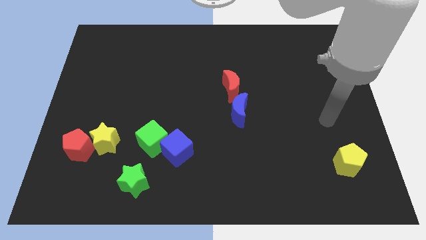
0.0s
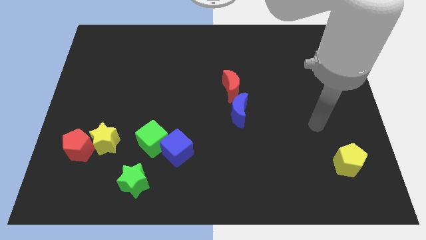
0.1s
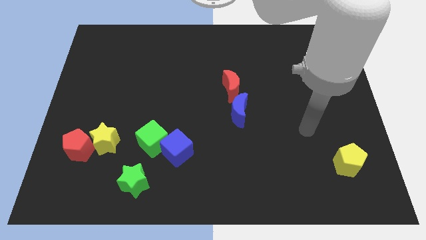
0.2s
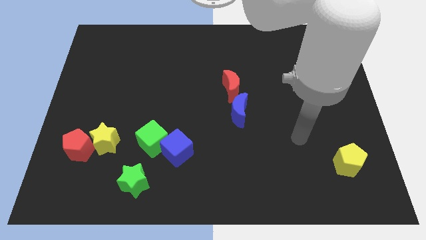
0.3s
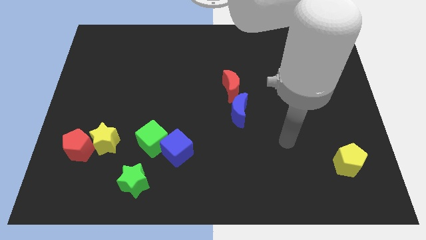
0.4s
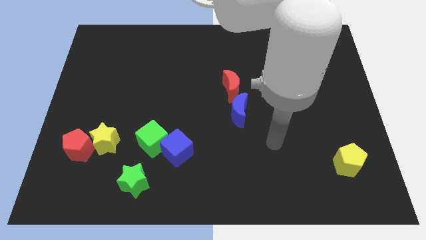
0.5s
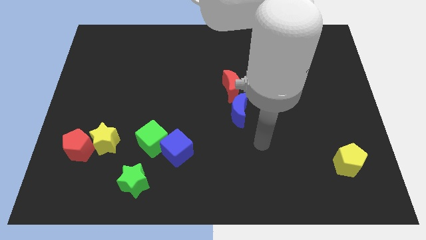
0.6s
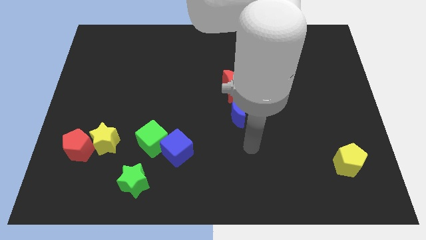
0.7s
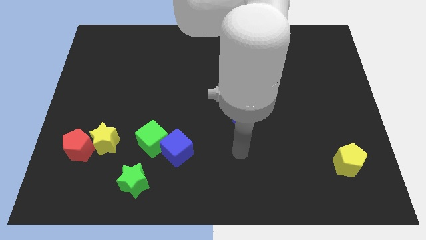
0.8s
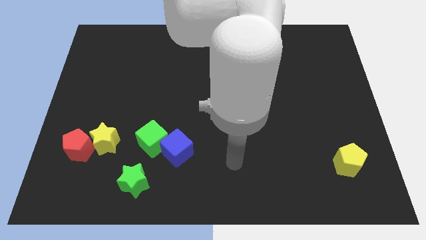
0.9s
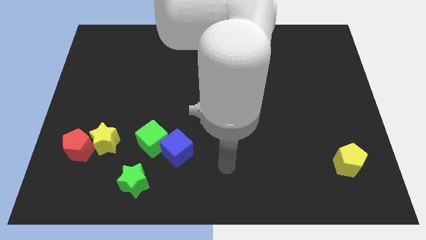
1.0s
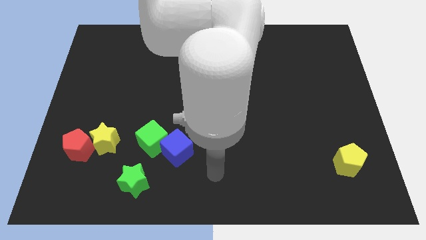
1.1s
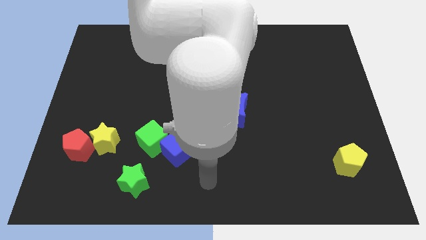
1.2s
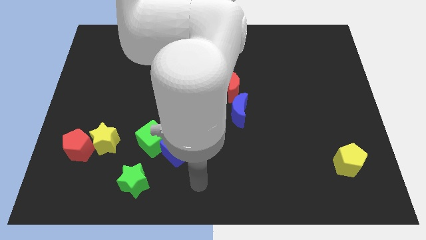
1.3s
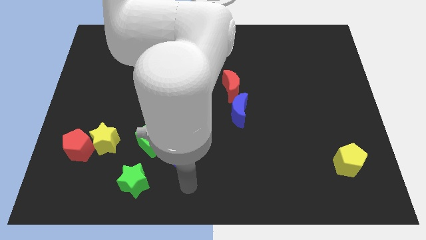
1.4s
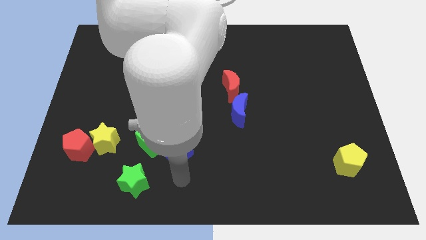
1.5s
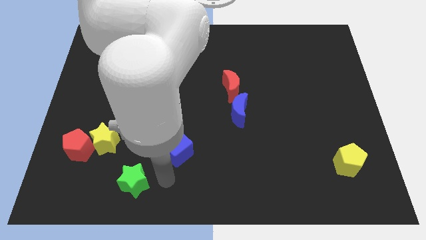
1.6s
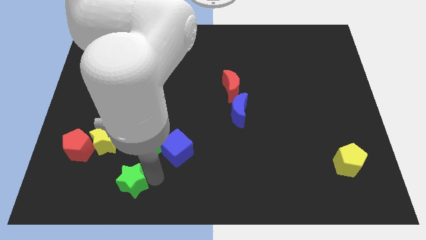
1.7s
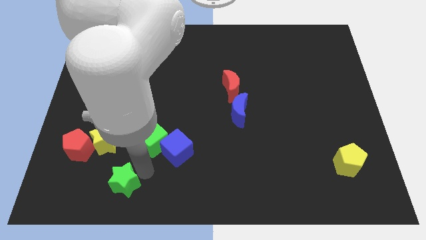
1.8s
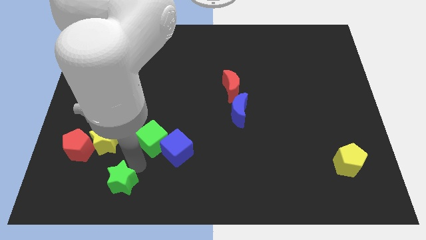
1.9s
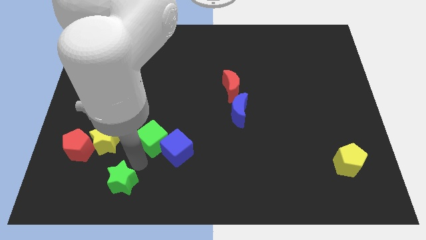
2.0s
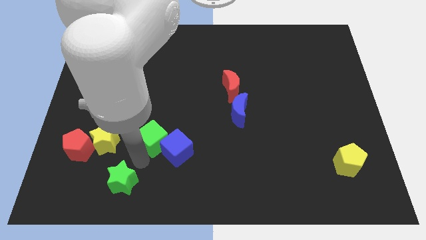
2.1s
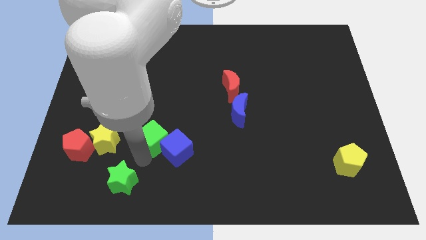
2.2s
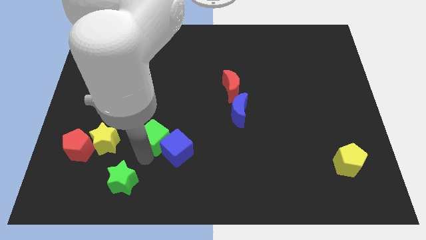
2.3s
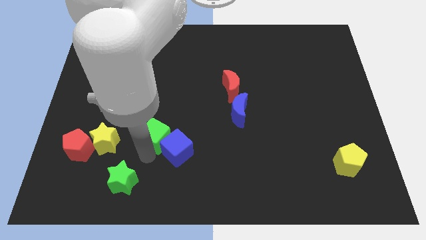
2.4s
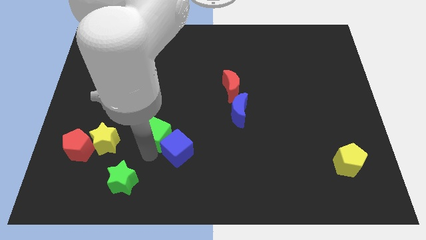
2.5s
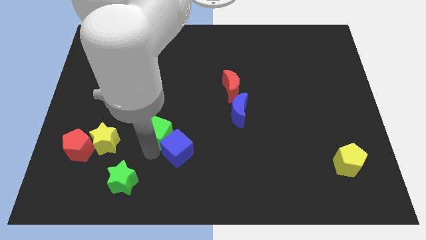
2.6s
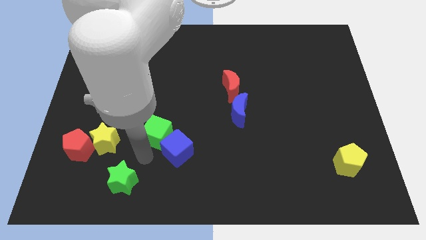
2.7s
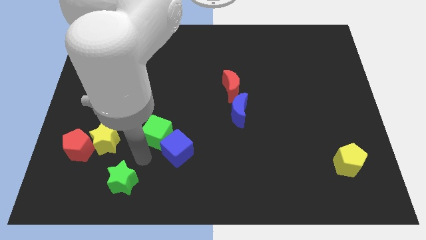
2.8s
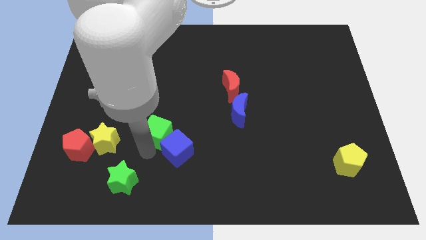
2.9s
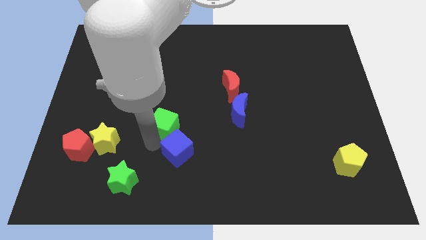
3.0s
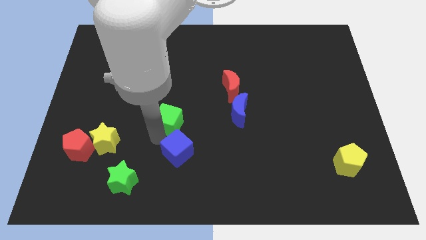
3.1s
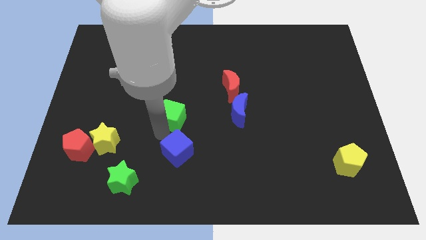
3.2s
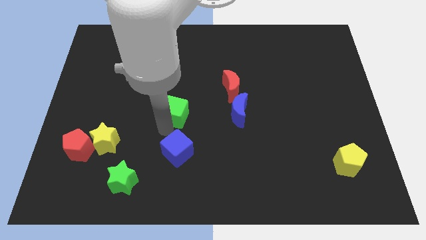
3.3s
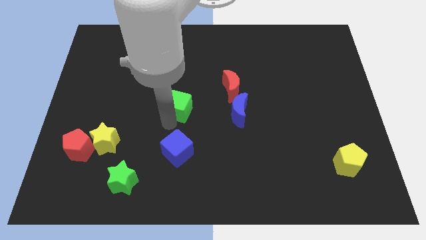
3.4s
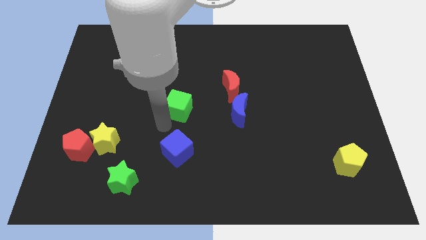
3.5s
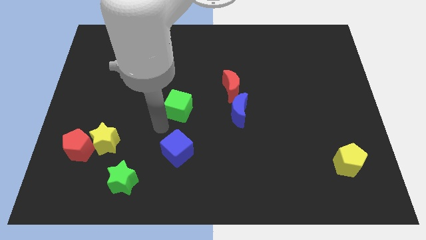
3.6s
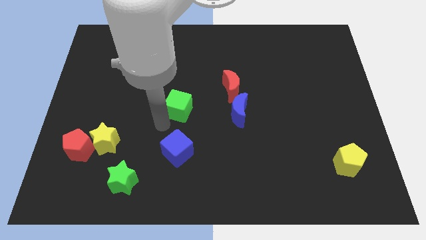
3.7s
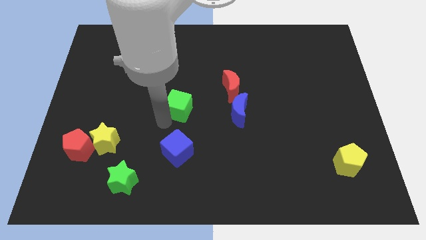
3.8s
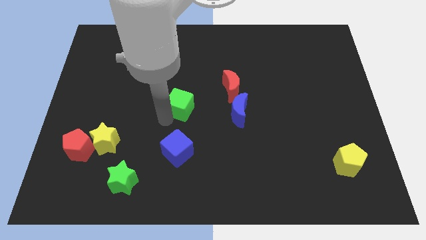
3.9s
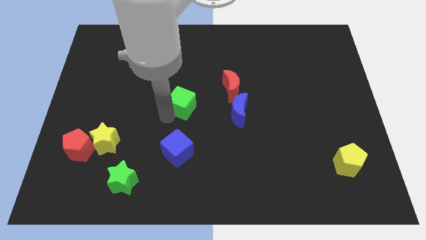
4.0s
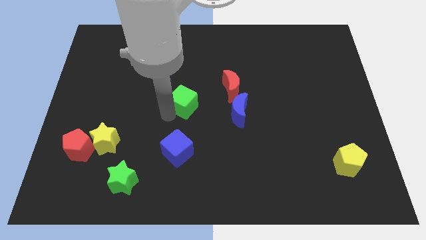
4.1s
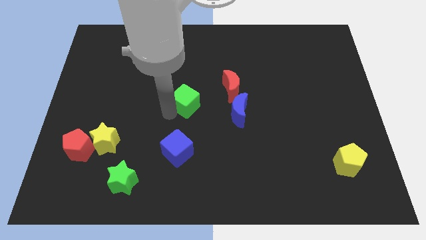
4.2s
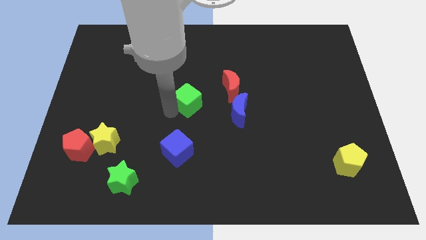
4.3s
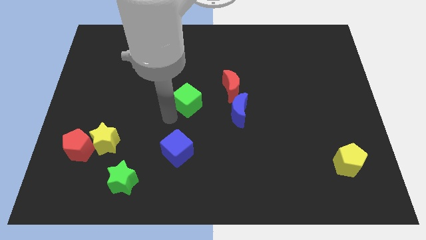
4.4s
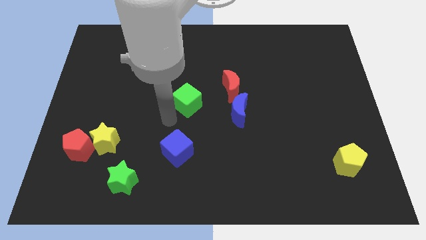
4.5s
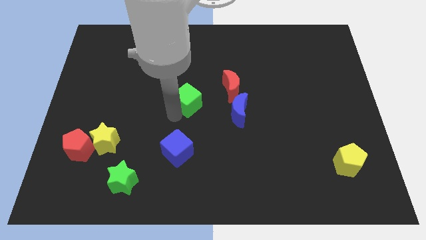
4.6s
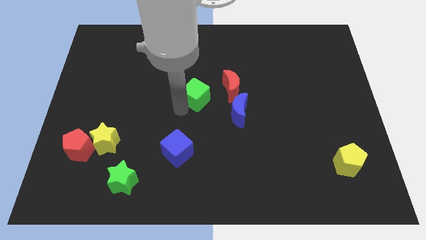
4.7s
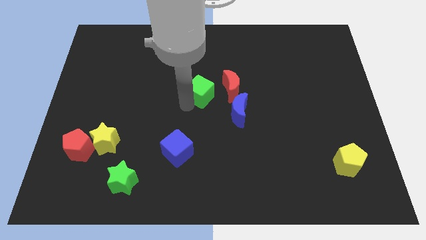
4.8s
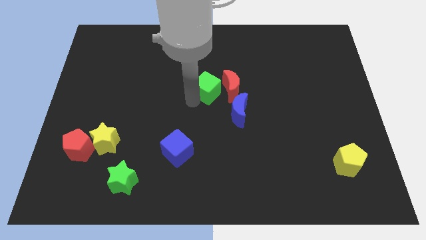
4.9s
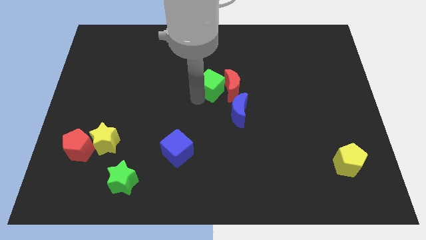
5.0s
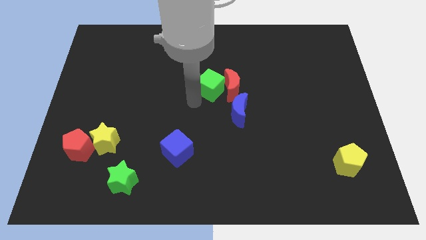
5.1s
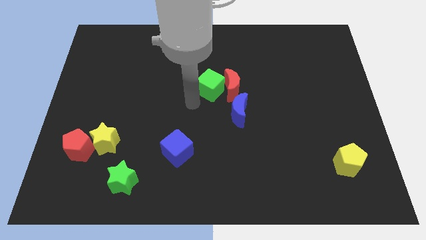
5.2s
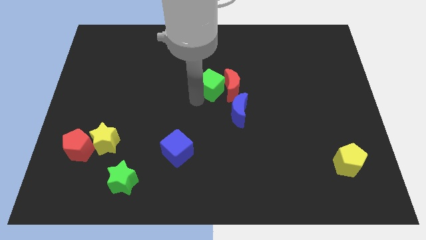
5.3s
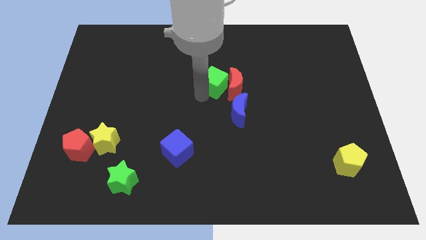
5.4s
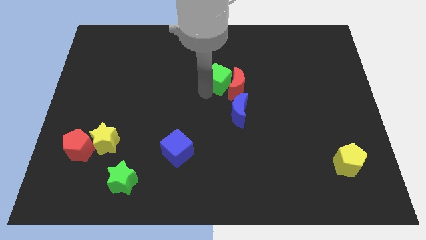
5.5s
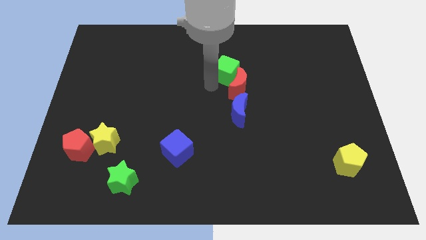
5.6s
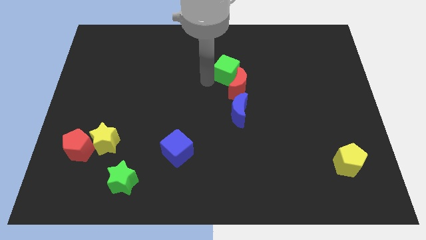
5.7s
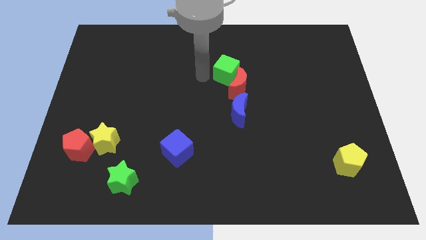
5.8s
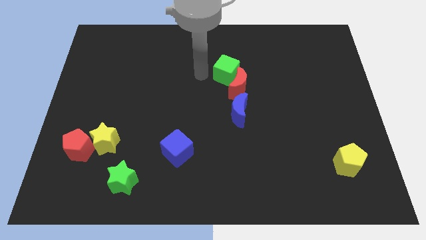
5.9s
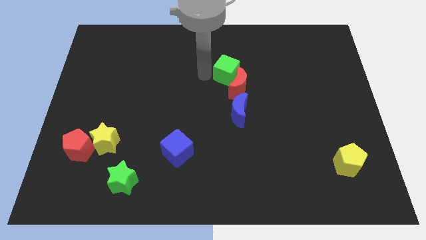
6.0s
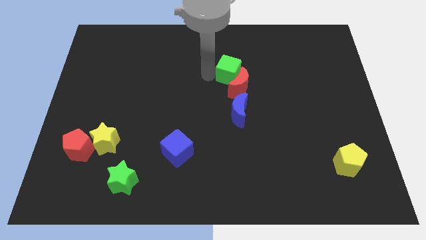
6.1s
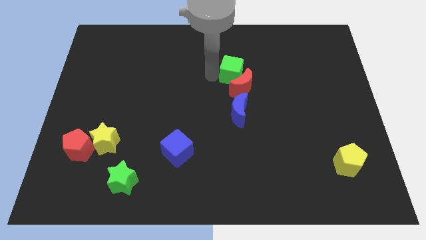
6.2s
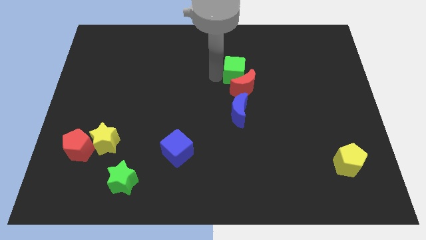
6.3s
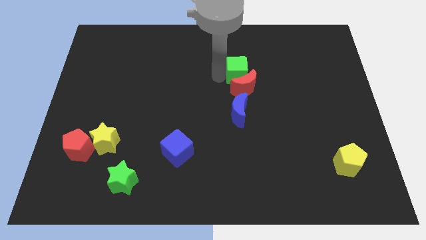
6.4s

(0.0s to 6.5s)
move the green cube to the top right of the red moon

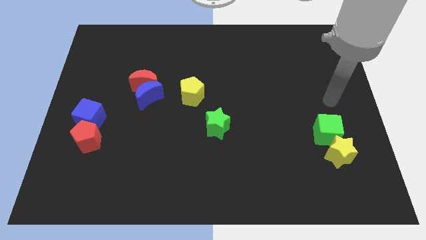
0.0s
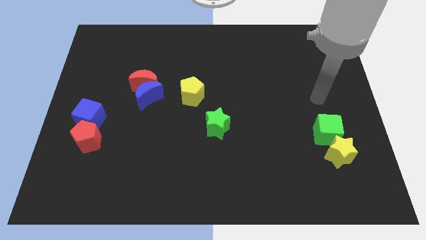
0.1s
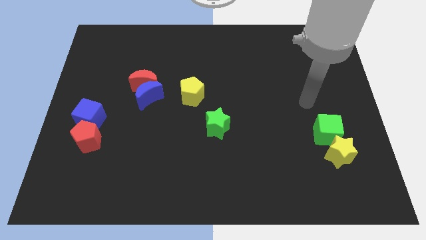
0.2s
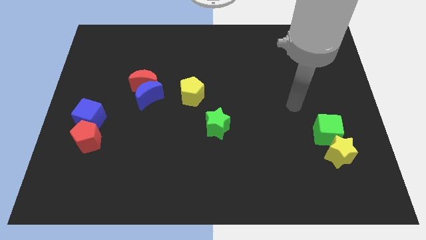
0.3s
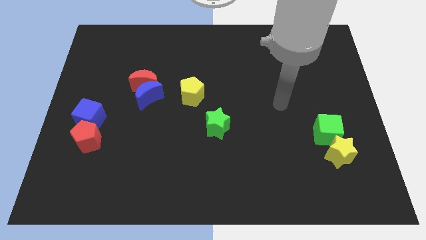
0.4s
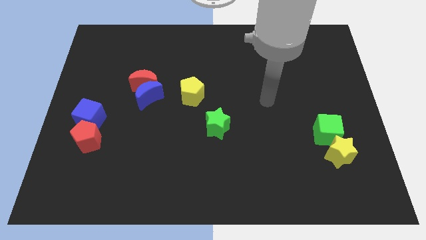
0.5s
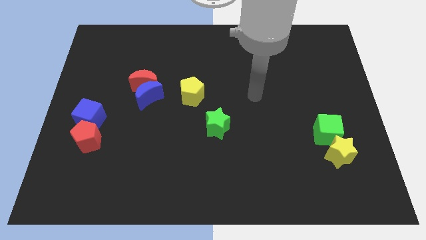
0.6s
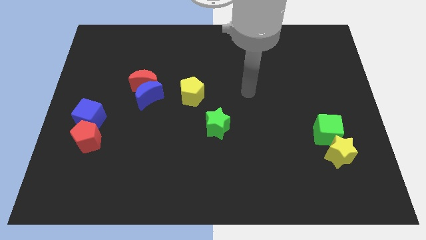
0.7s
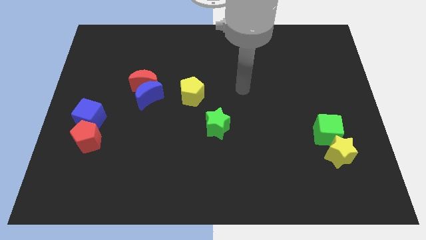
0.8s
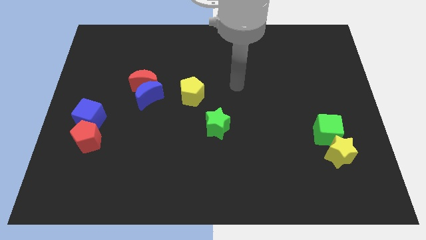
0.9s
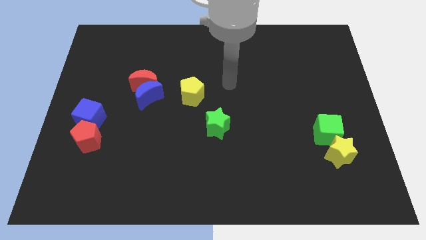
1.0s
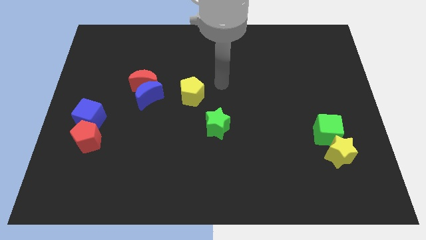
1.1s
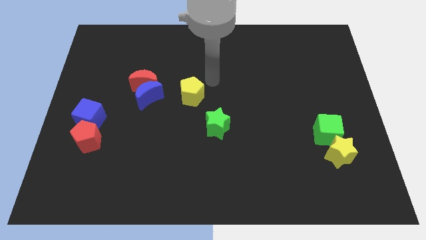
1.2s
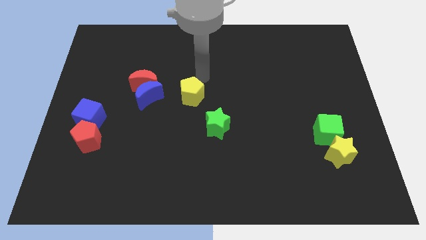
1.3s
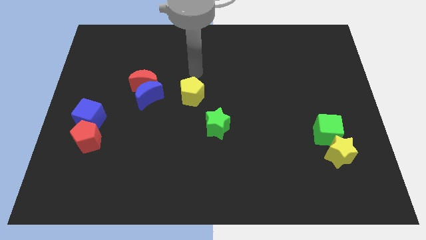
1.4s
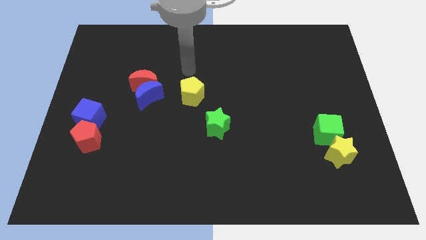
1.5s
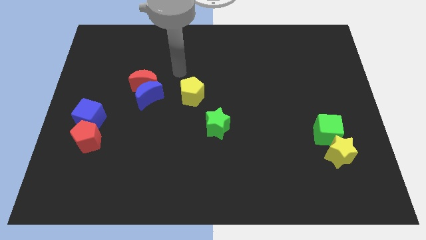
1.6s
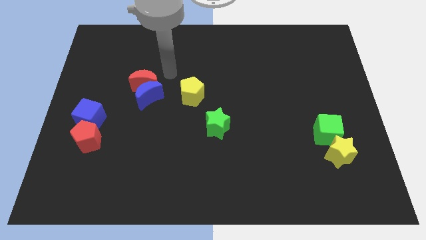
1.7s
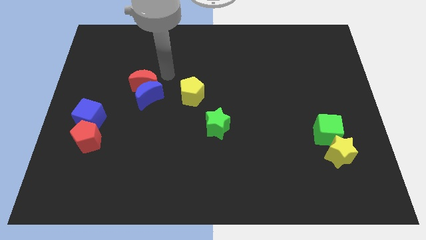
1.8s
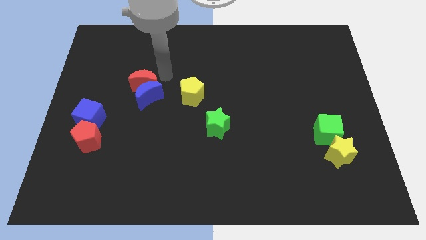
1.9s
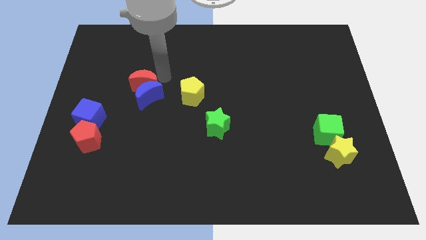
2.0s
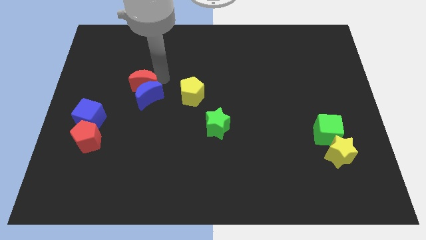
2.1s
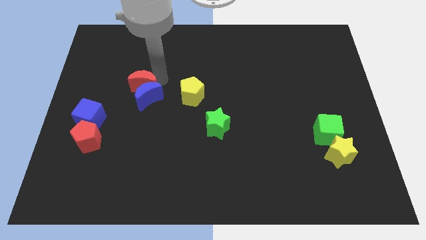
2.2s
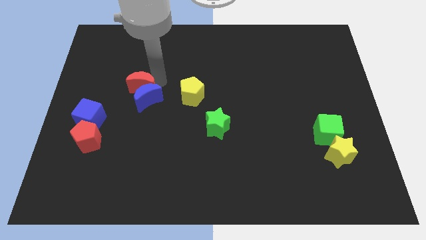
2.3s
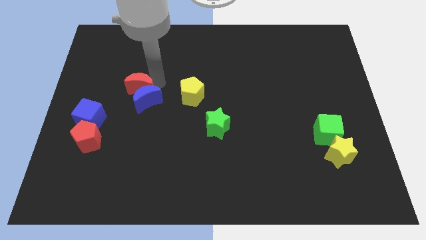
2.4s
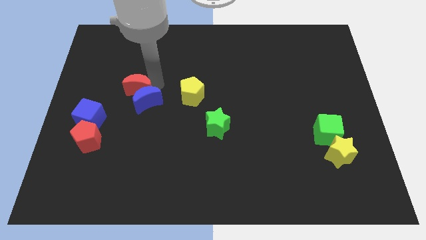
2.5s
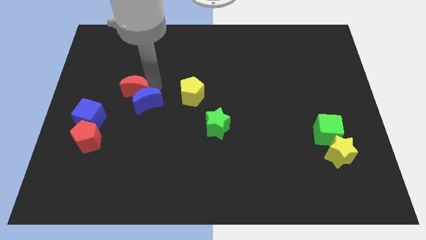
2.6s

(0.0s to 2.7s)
put the red moon to the top right side of the blue cube
